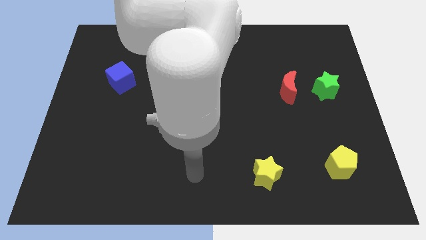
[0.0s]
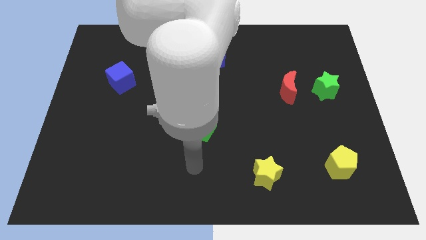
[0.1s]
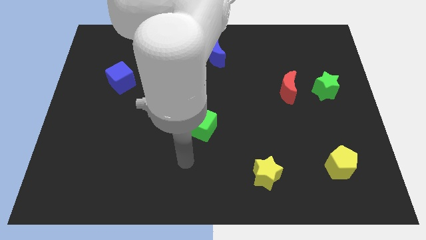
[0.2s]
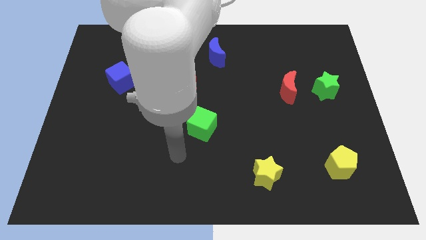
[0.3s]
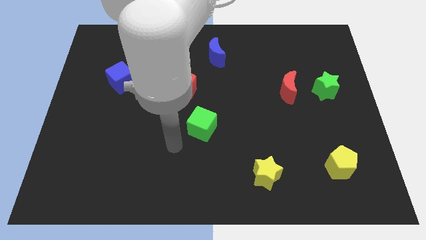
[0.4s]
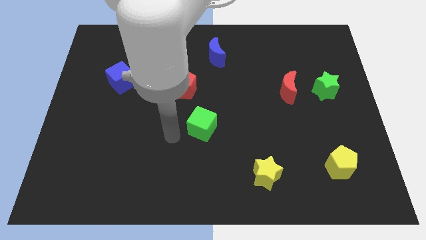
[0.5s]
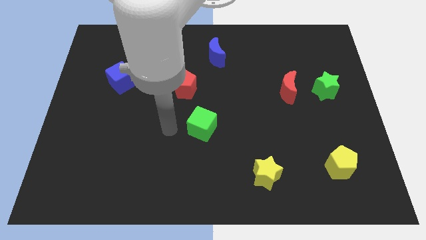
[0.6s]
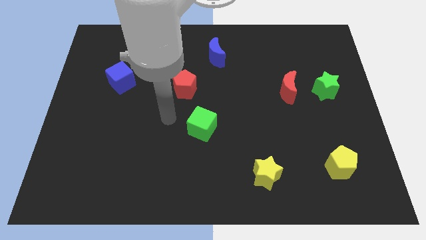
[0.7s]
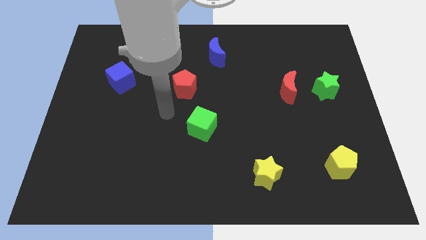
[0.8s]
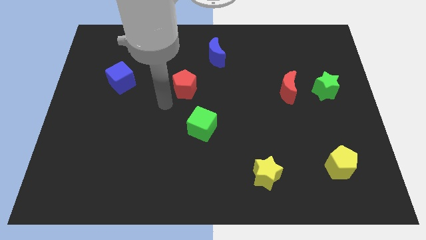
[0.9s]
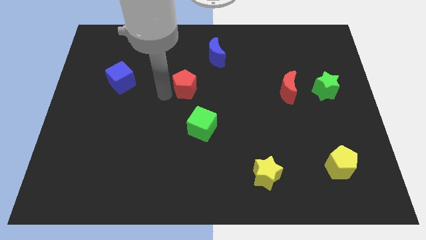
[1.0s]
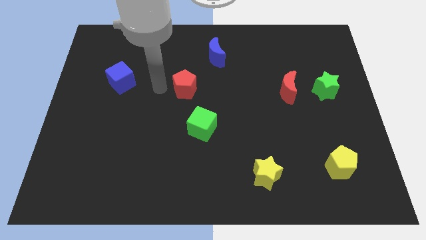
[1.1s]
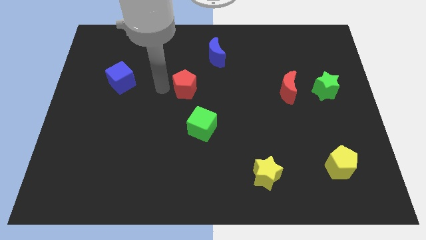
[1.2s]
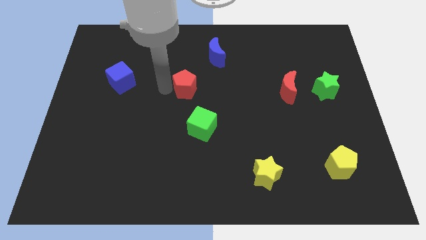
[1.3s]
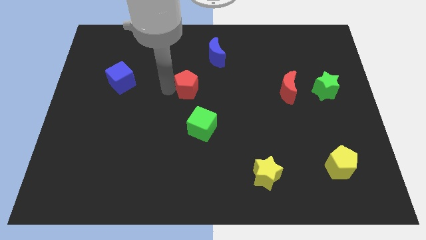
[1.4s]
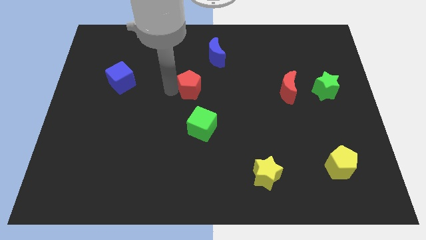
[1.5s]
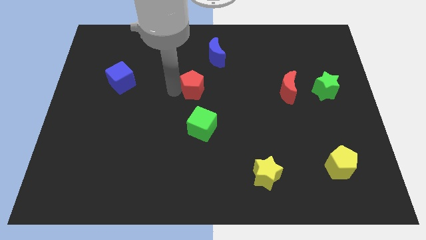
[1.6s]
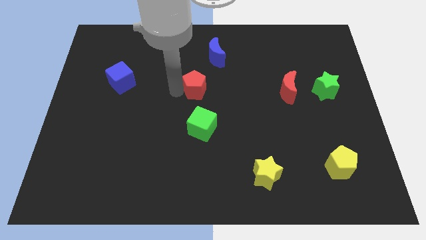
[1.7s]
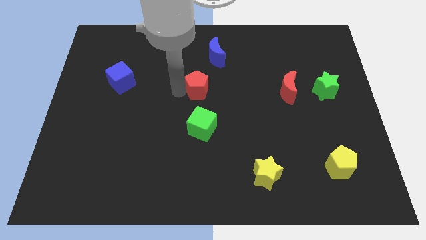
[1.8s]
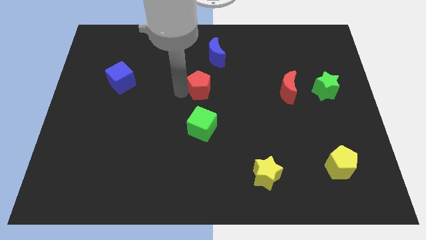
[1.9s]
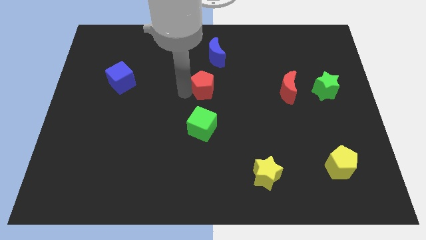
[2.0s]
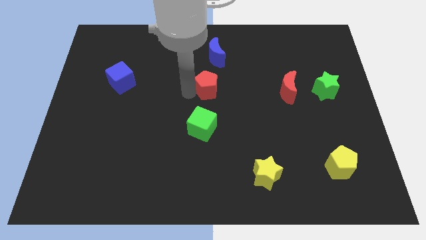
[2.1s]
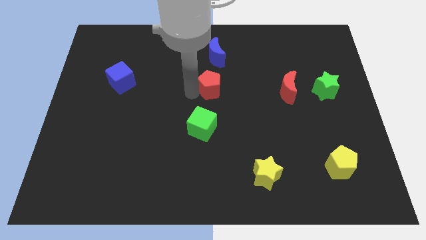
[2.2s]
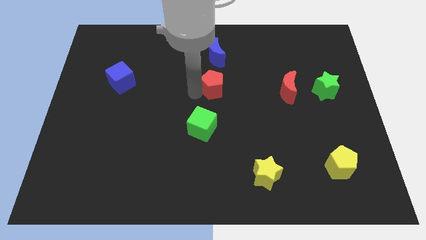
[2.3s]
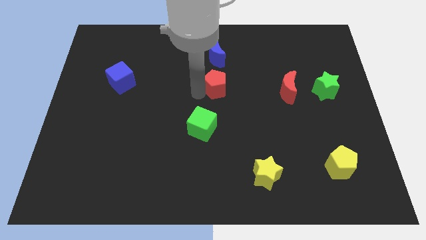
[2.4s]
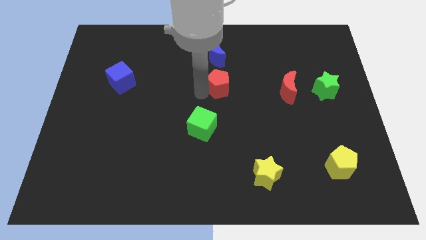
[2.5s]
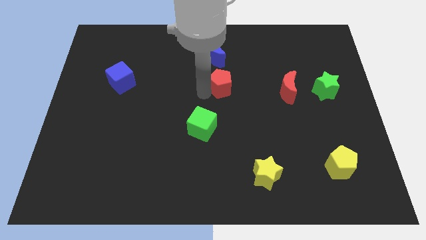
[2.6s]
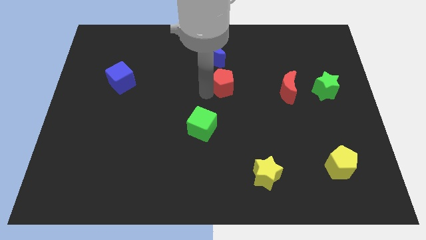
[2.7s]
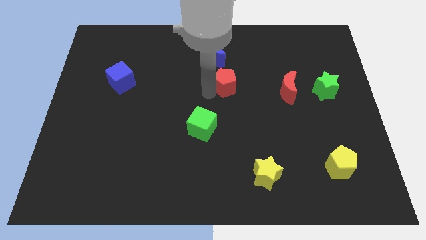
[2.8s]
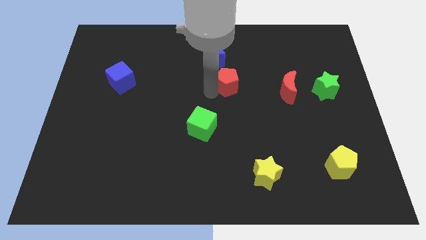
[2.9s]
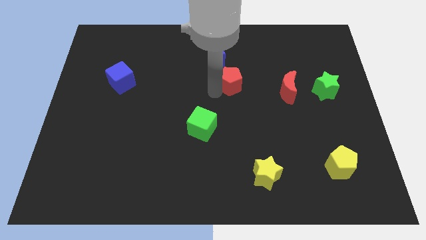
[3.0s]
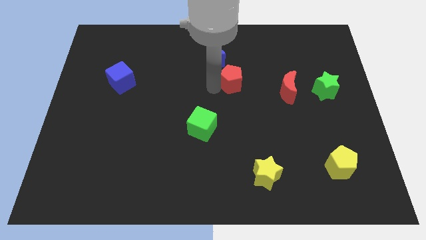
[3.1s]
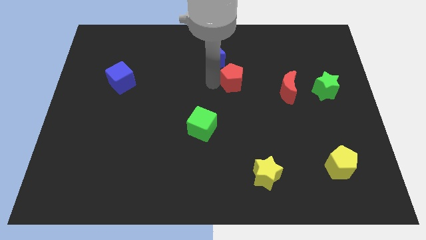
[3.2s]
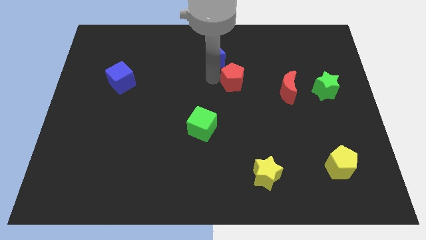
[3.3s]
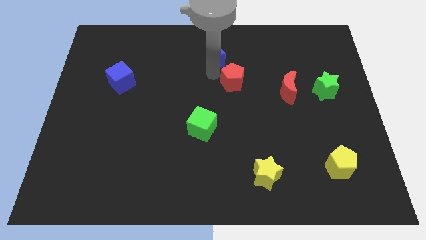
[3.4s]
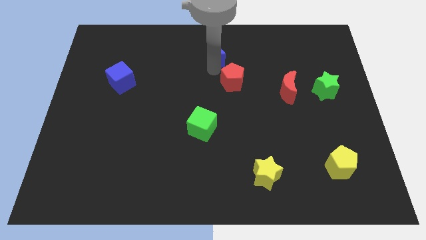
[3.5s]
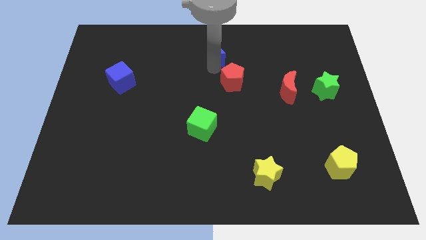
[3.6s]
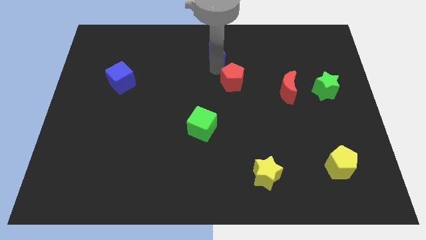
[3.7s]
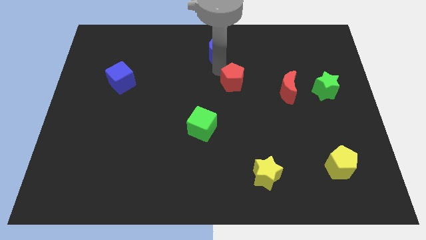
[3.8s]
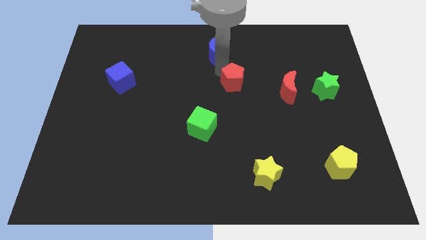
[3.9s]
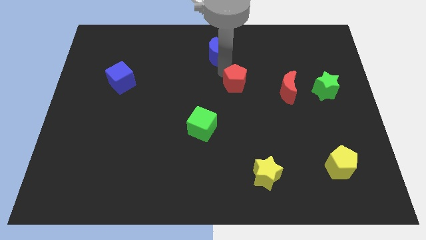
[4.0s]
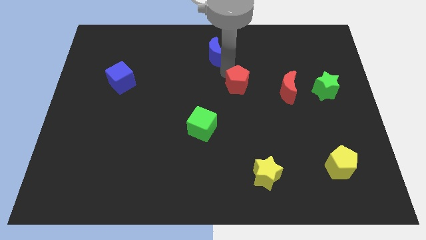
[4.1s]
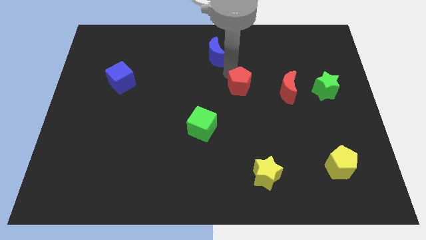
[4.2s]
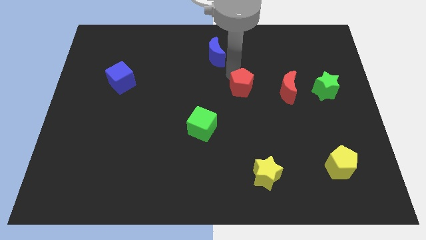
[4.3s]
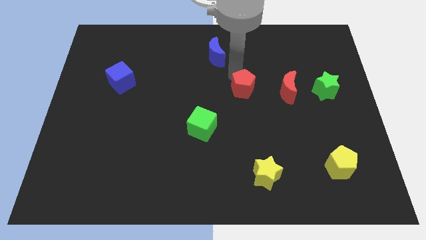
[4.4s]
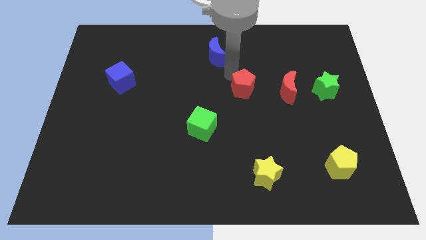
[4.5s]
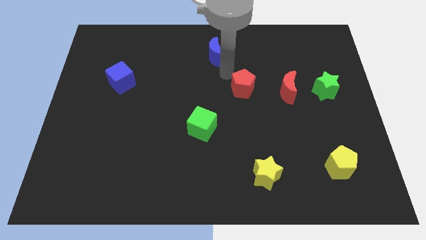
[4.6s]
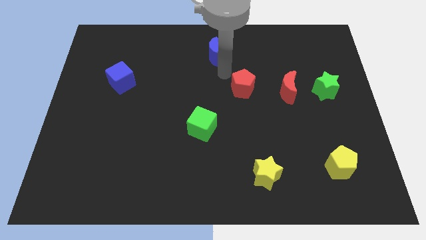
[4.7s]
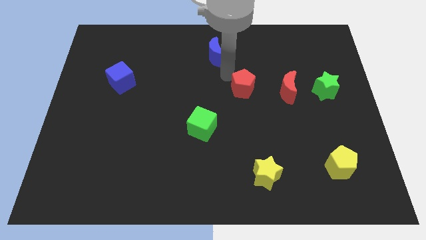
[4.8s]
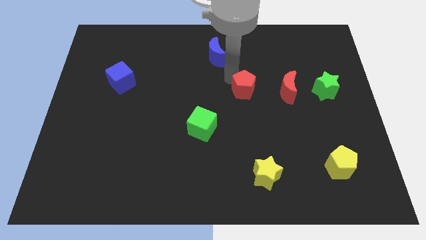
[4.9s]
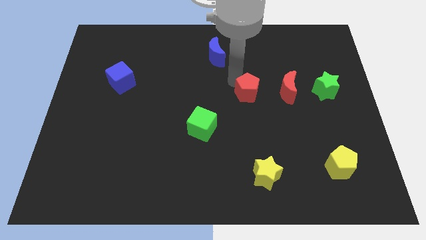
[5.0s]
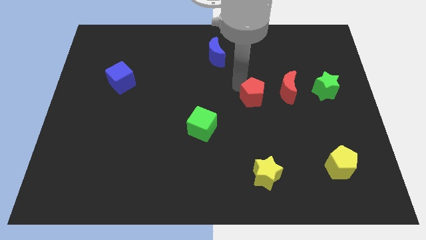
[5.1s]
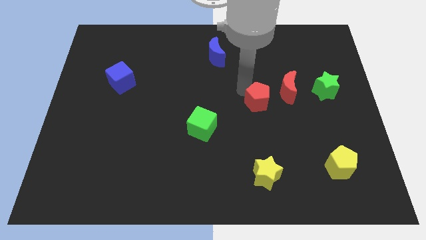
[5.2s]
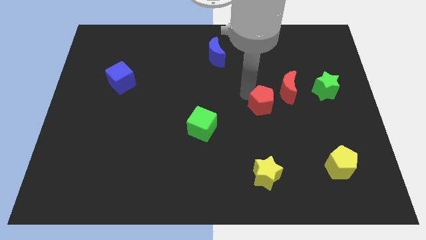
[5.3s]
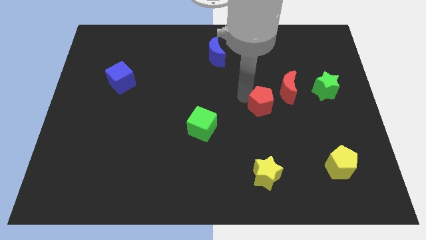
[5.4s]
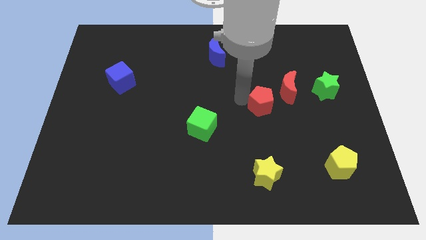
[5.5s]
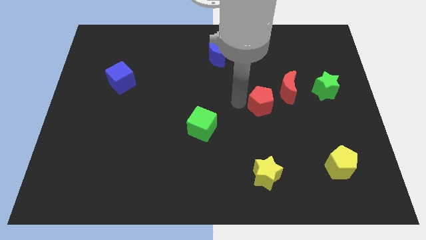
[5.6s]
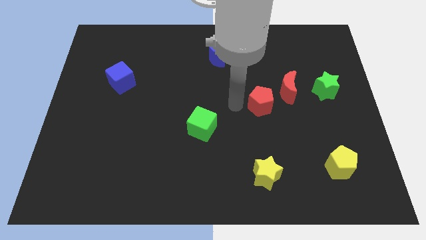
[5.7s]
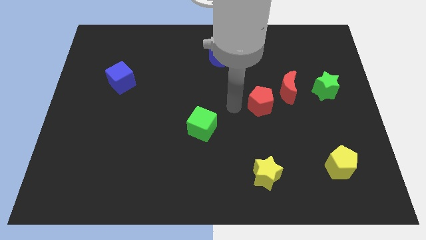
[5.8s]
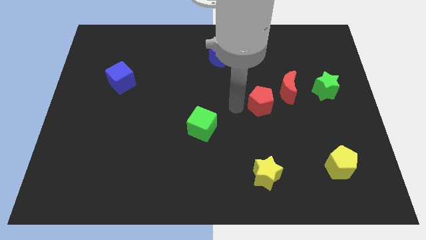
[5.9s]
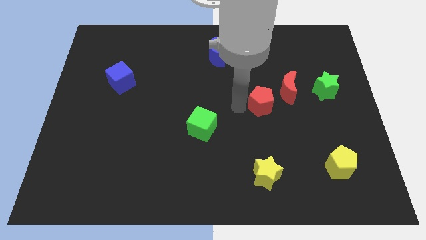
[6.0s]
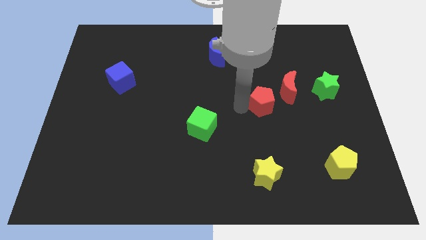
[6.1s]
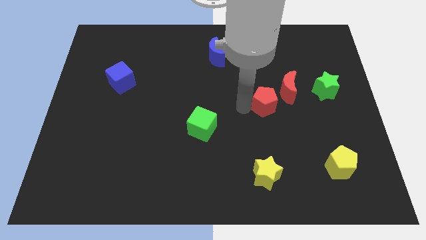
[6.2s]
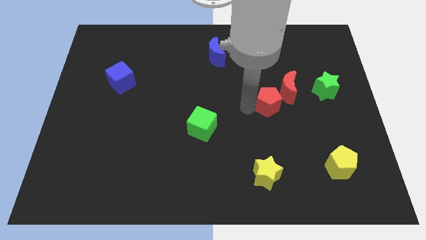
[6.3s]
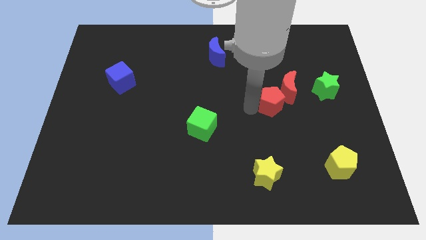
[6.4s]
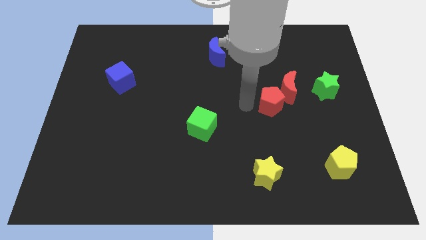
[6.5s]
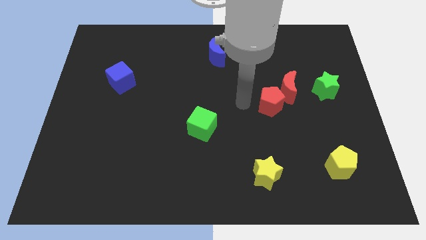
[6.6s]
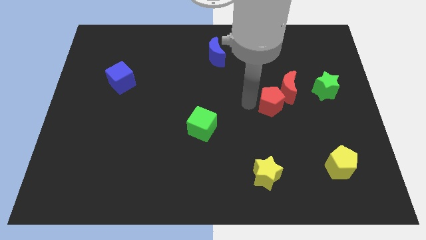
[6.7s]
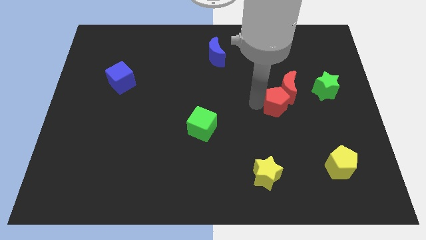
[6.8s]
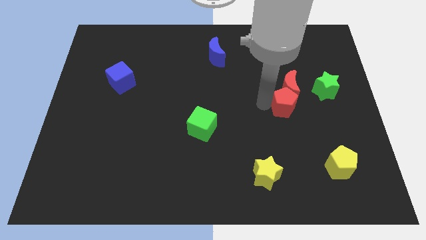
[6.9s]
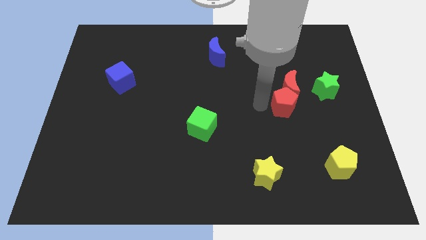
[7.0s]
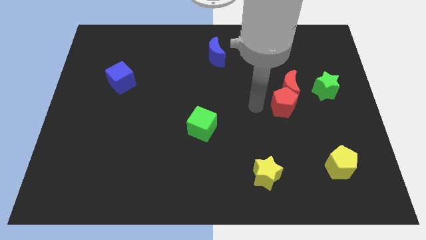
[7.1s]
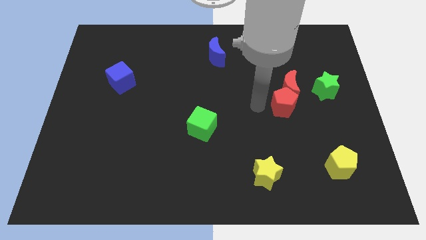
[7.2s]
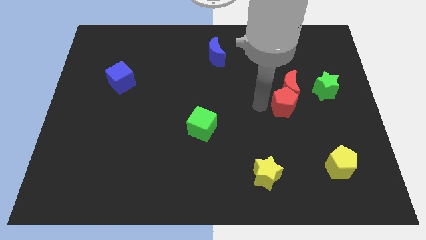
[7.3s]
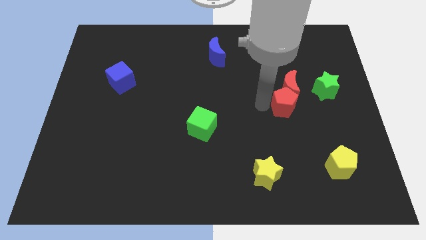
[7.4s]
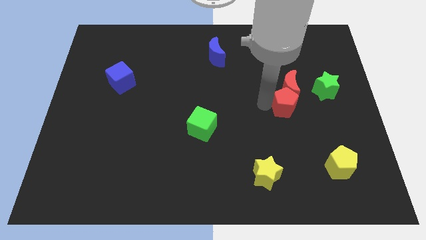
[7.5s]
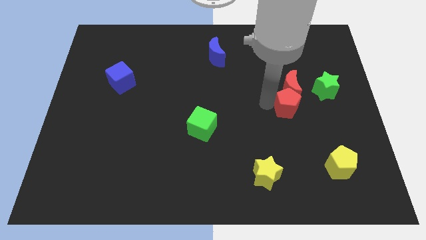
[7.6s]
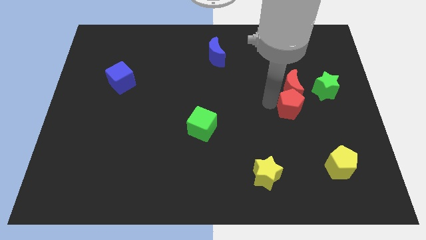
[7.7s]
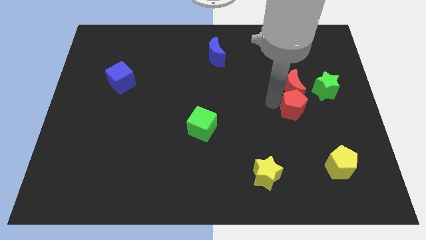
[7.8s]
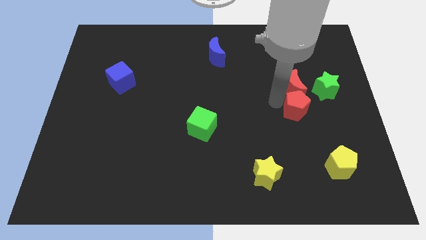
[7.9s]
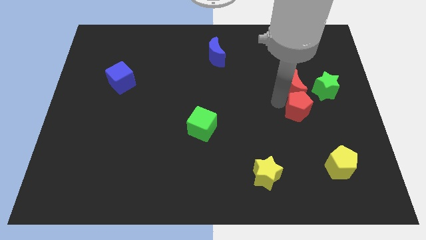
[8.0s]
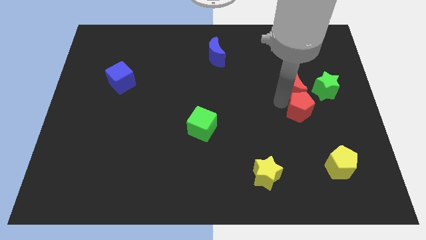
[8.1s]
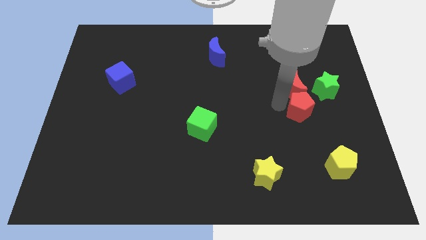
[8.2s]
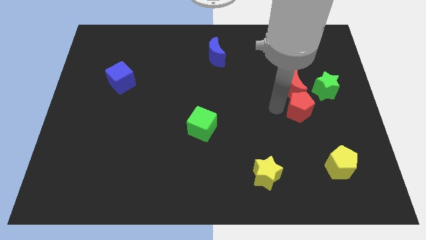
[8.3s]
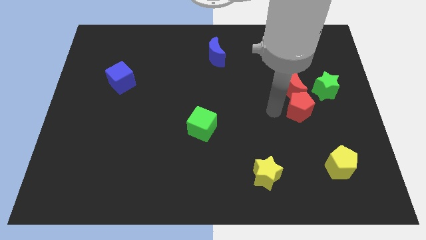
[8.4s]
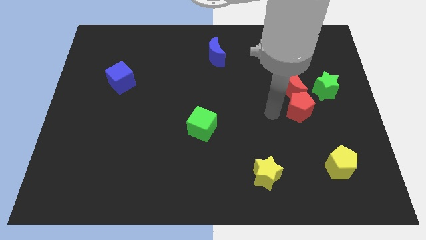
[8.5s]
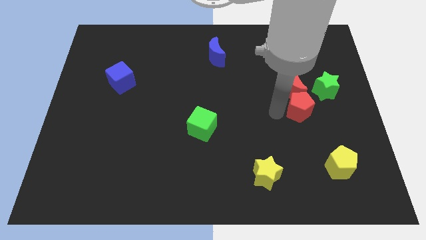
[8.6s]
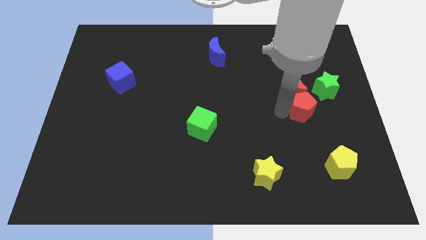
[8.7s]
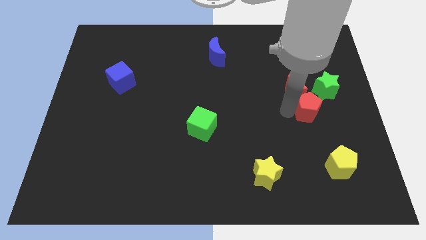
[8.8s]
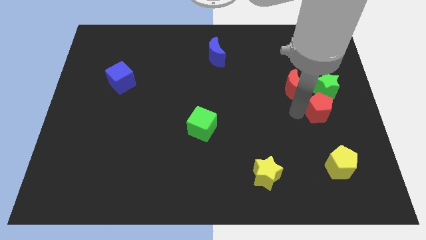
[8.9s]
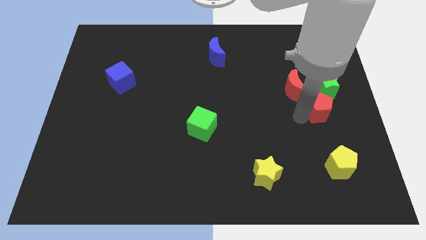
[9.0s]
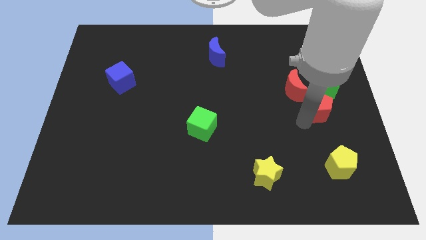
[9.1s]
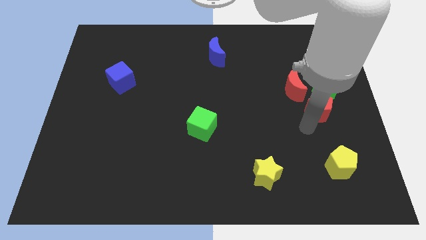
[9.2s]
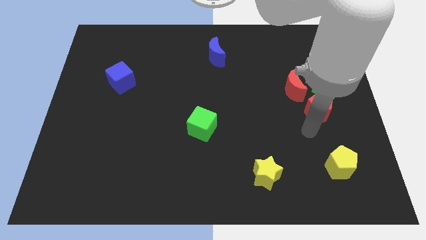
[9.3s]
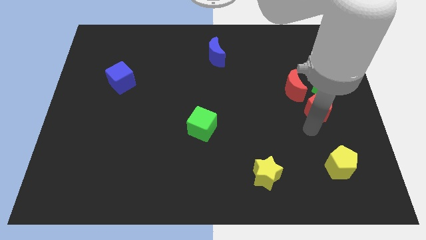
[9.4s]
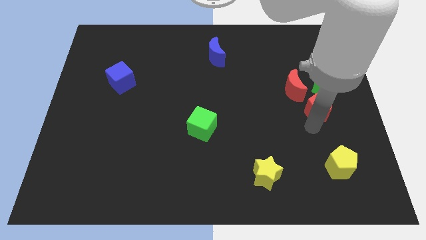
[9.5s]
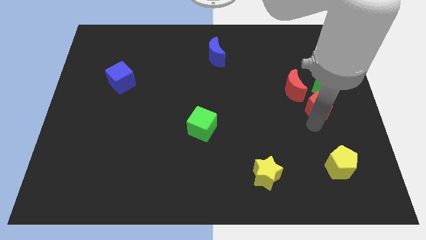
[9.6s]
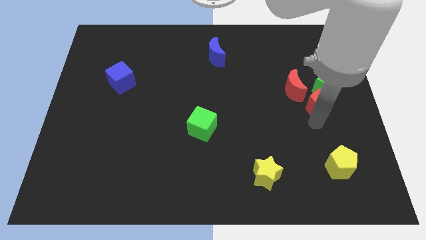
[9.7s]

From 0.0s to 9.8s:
push the red pentagon towards the green star
